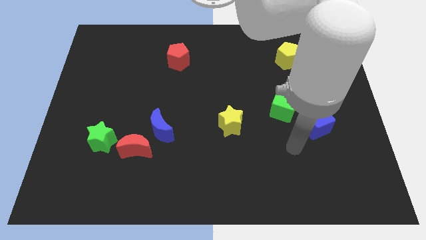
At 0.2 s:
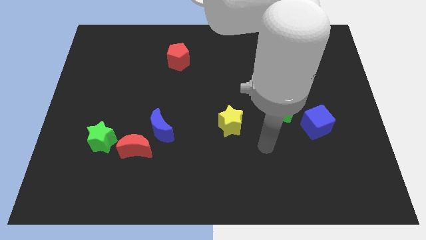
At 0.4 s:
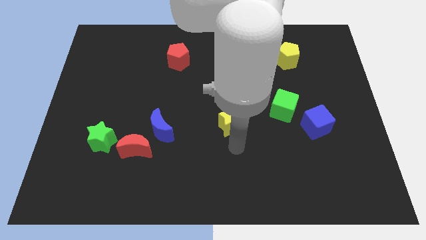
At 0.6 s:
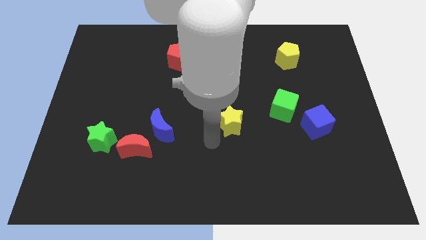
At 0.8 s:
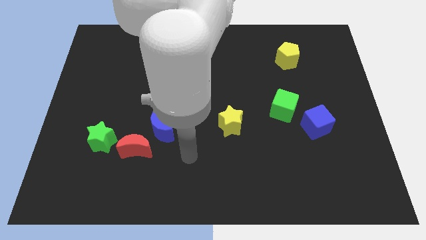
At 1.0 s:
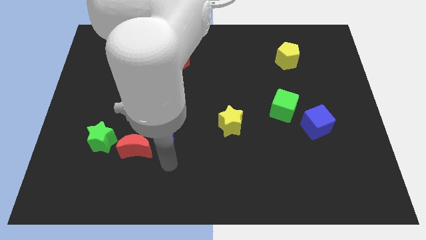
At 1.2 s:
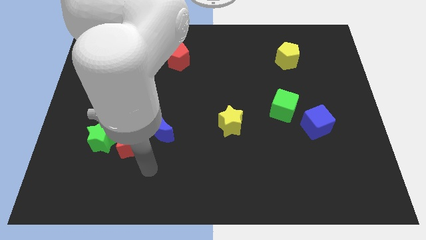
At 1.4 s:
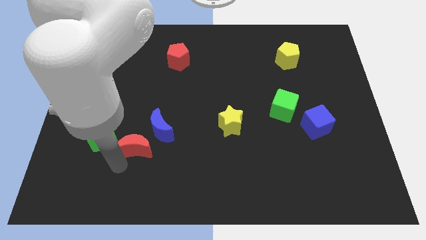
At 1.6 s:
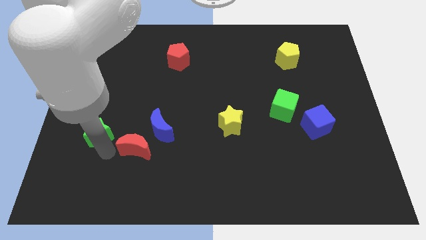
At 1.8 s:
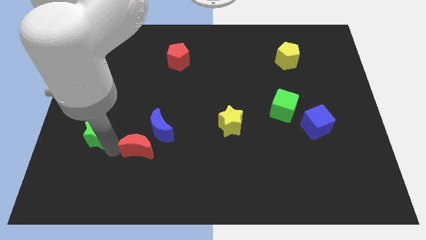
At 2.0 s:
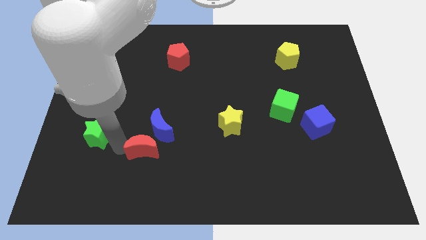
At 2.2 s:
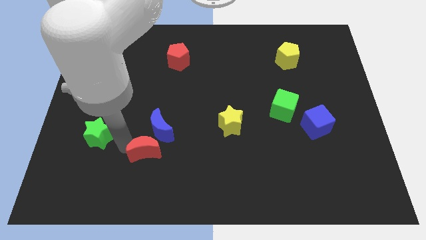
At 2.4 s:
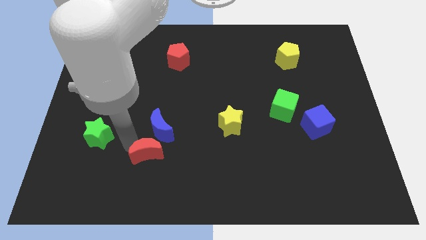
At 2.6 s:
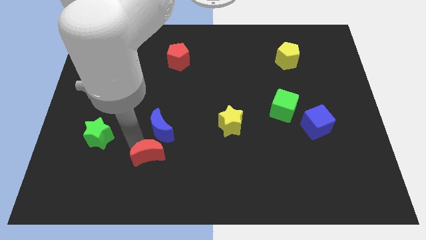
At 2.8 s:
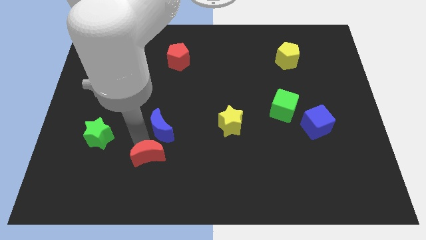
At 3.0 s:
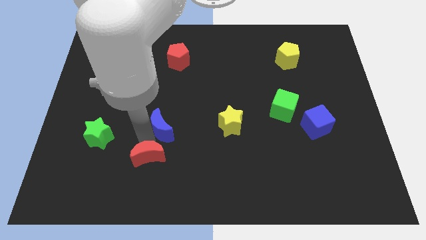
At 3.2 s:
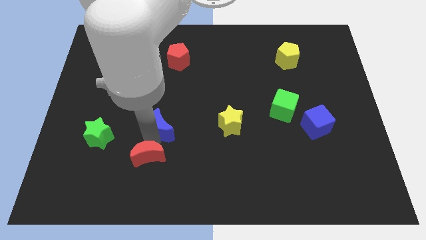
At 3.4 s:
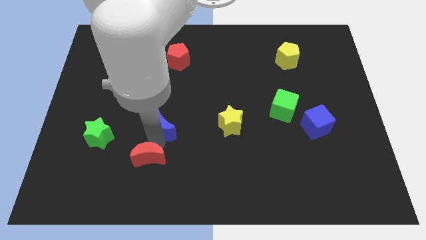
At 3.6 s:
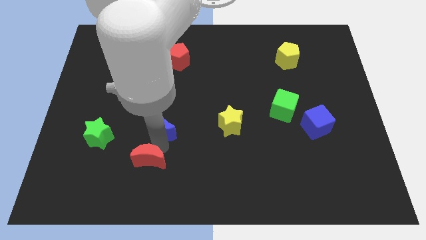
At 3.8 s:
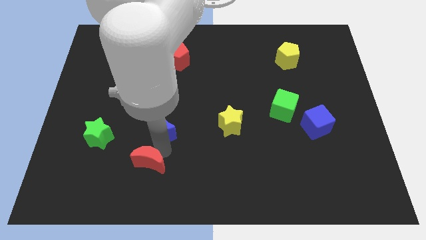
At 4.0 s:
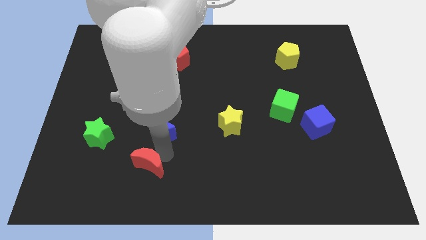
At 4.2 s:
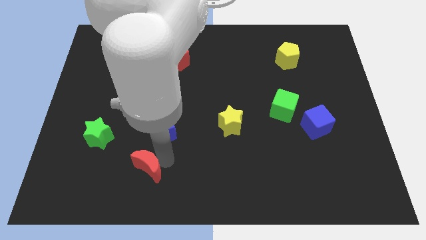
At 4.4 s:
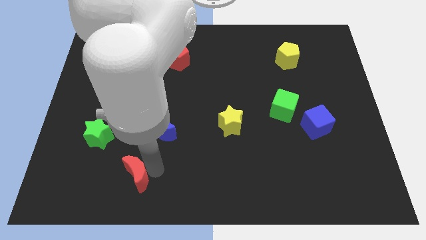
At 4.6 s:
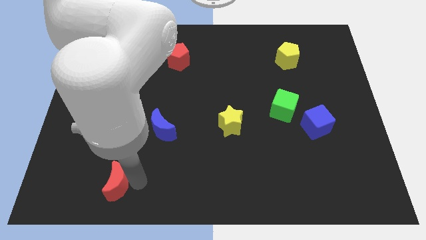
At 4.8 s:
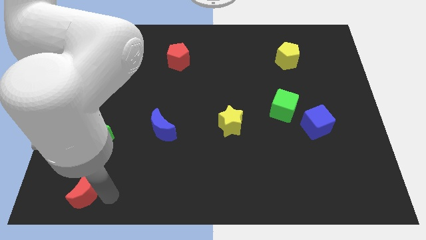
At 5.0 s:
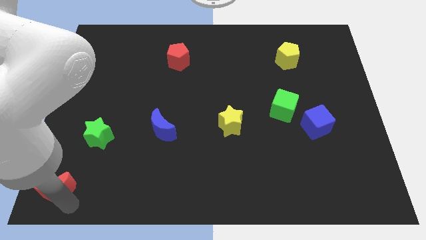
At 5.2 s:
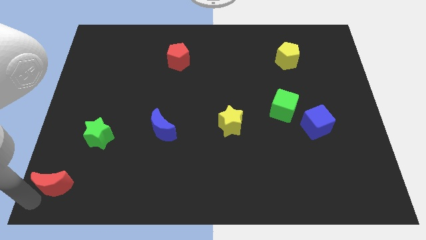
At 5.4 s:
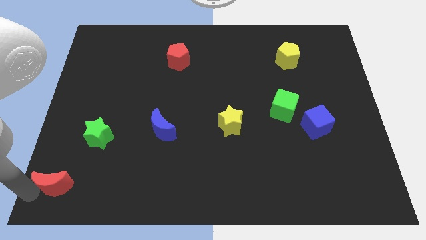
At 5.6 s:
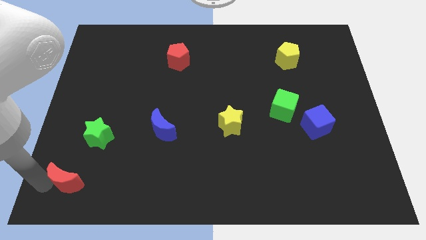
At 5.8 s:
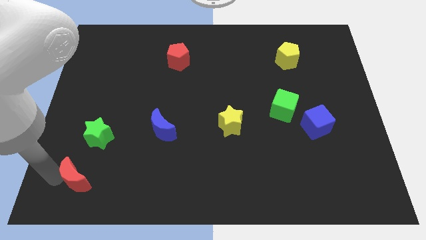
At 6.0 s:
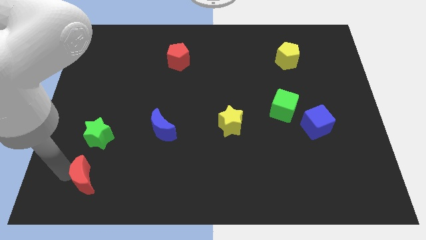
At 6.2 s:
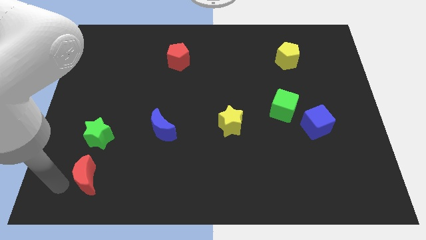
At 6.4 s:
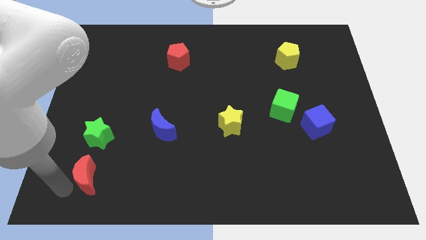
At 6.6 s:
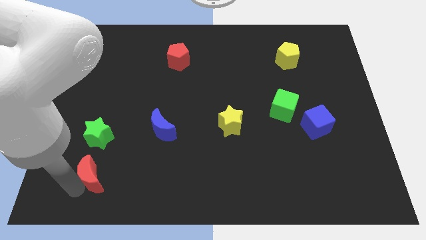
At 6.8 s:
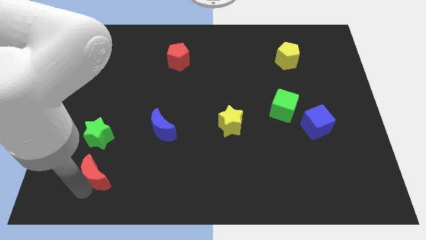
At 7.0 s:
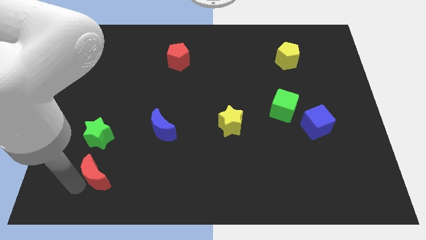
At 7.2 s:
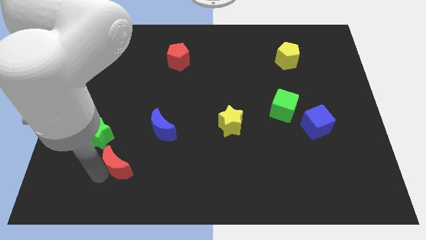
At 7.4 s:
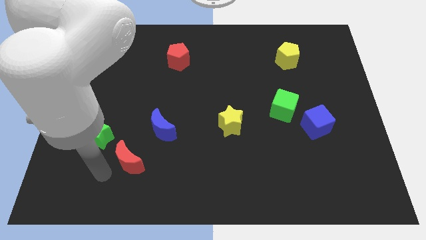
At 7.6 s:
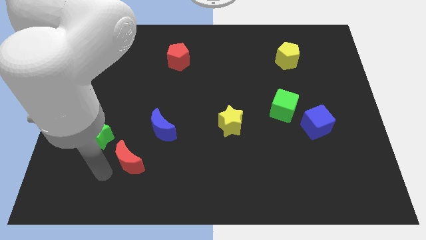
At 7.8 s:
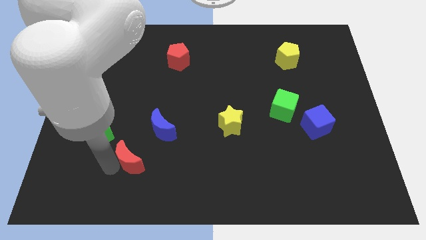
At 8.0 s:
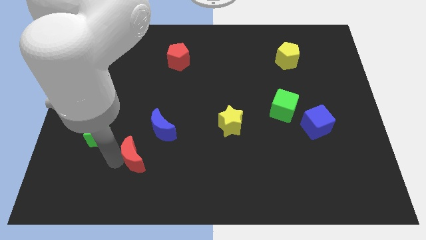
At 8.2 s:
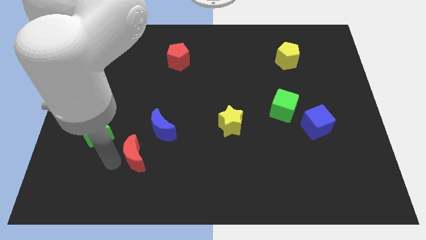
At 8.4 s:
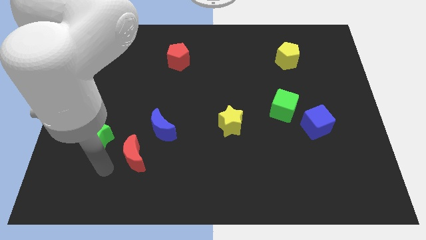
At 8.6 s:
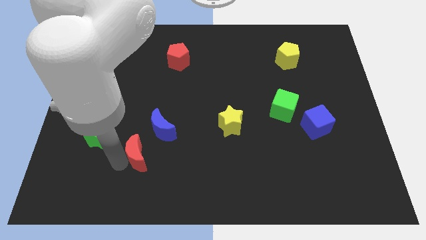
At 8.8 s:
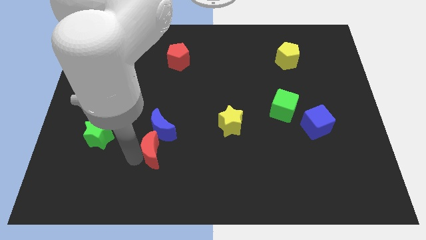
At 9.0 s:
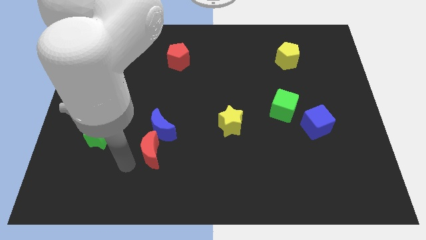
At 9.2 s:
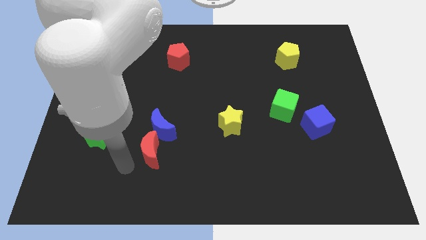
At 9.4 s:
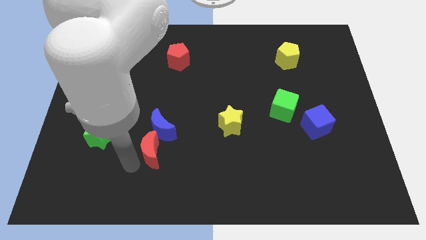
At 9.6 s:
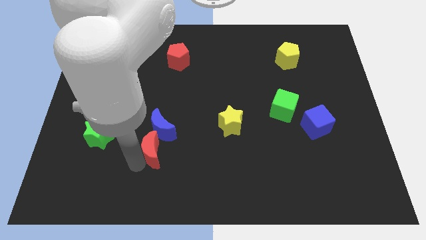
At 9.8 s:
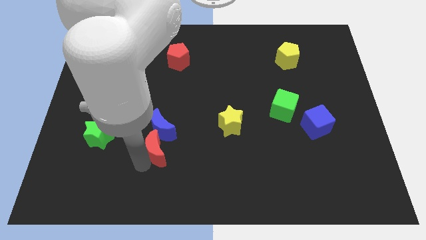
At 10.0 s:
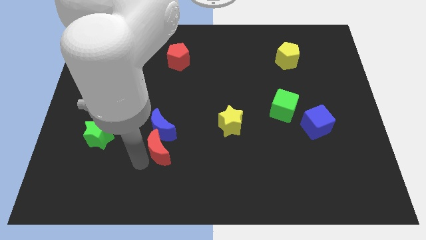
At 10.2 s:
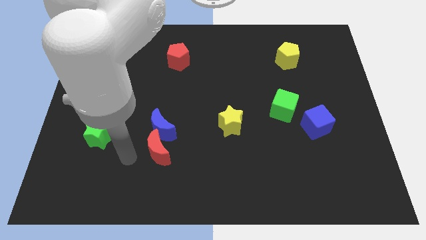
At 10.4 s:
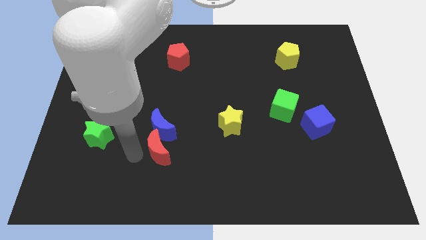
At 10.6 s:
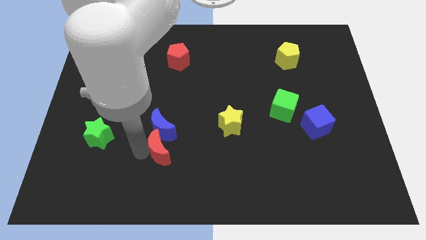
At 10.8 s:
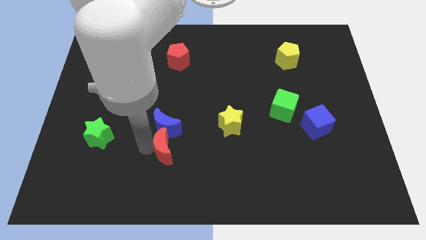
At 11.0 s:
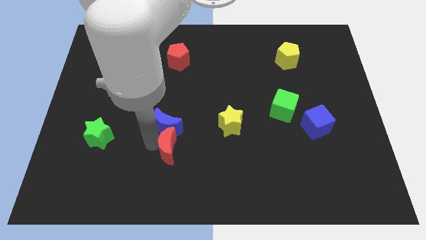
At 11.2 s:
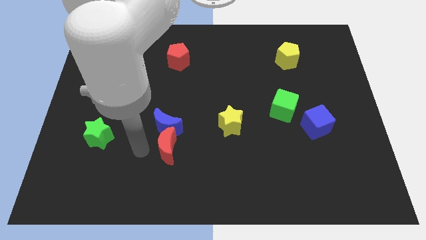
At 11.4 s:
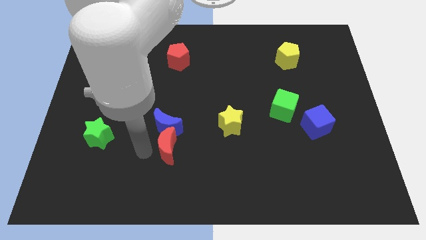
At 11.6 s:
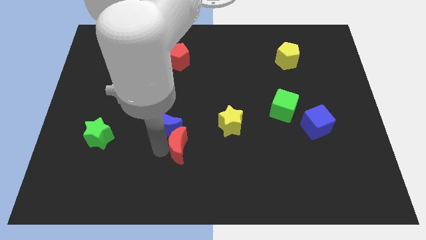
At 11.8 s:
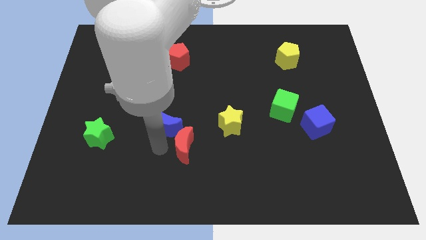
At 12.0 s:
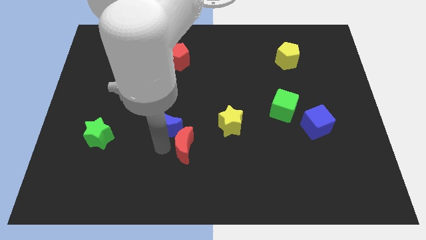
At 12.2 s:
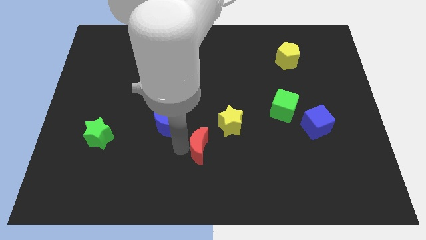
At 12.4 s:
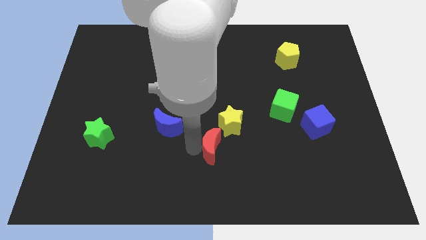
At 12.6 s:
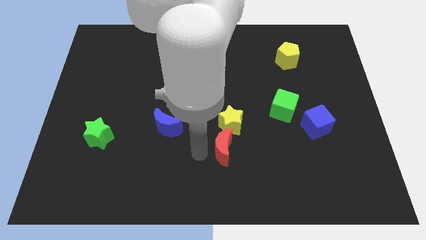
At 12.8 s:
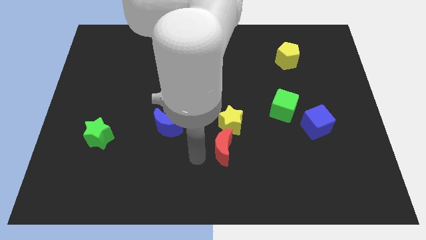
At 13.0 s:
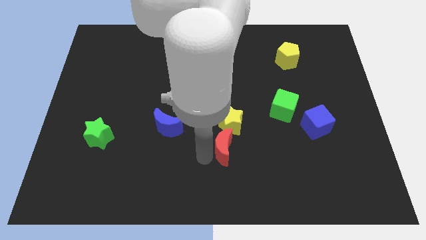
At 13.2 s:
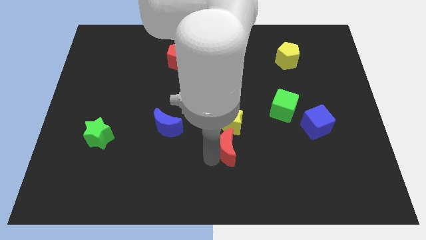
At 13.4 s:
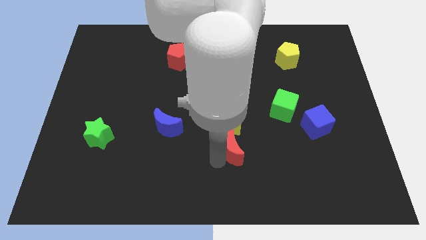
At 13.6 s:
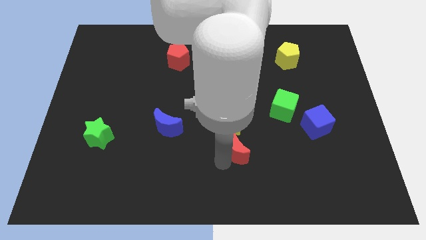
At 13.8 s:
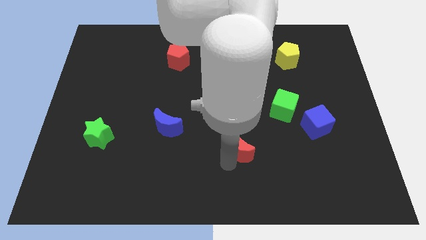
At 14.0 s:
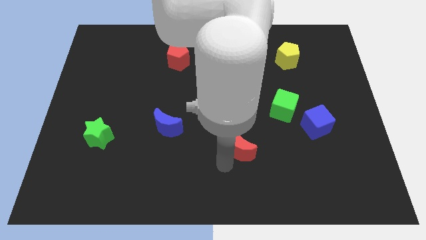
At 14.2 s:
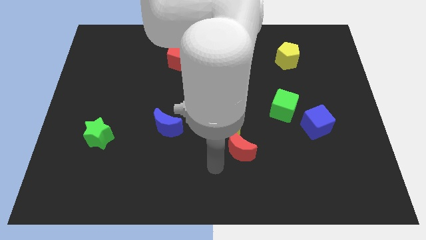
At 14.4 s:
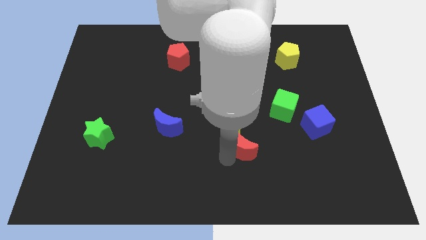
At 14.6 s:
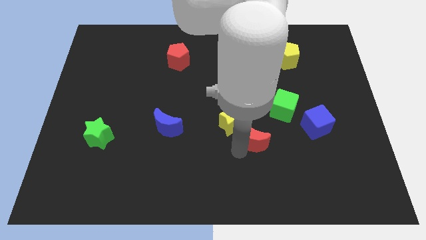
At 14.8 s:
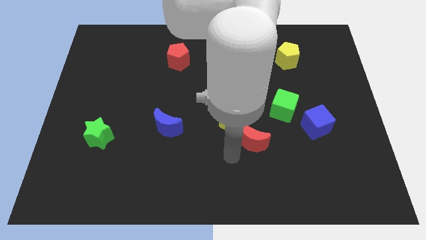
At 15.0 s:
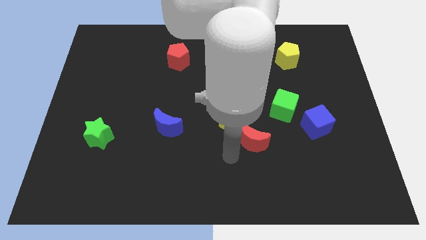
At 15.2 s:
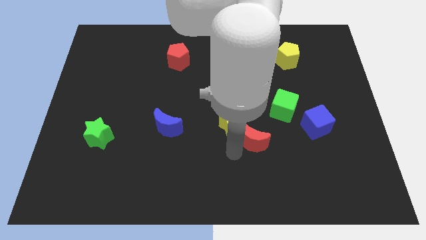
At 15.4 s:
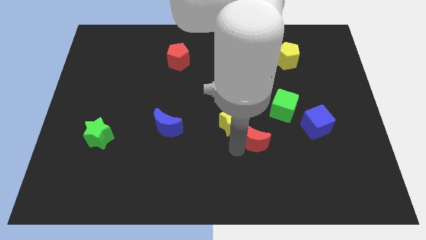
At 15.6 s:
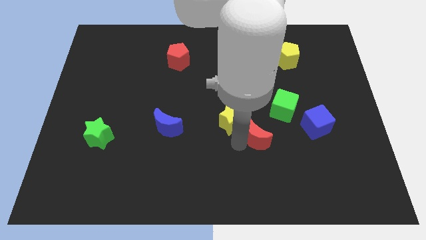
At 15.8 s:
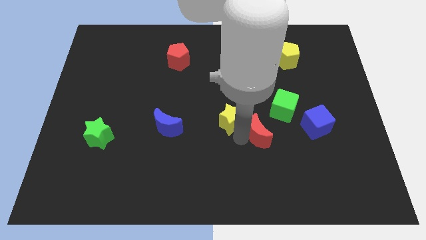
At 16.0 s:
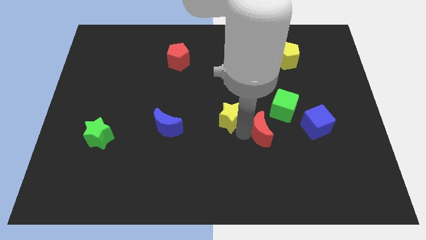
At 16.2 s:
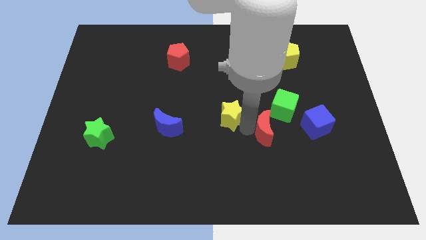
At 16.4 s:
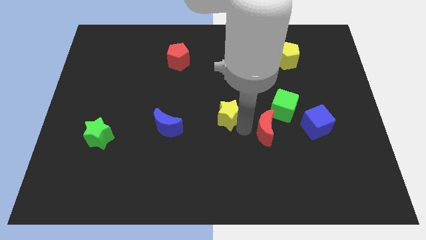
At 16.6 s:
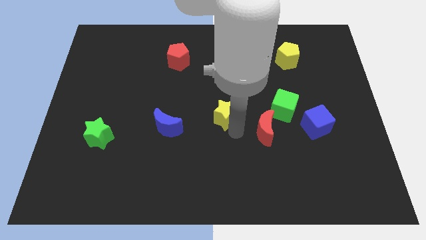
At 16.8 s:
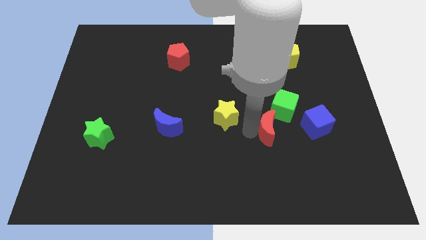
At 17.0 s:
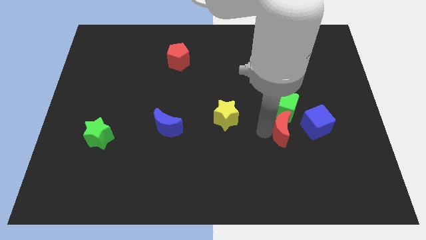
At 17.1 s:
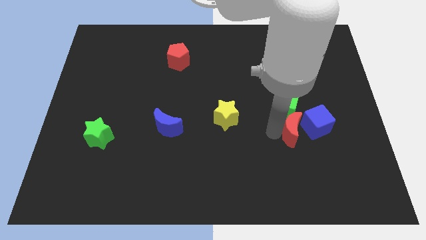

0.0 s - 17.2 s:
put the red moon next to the blue cube
